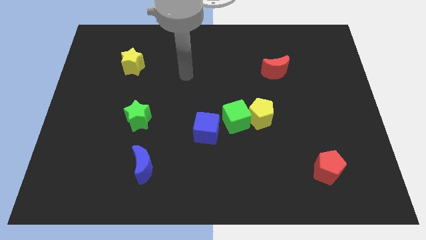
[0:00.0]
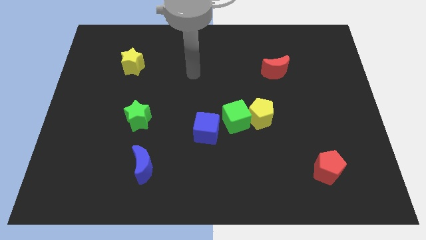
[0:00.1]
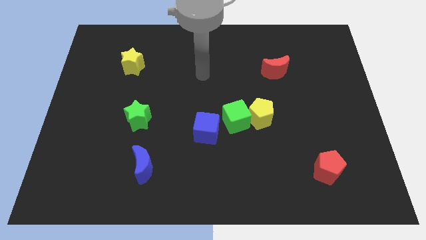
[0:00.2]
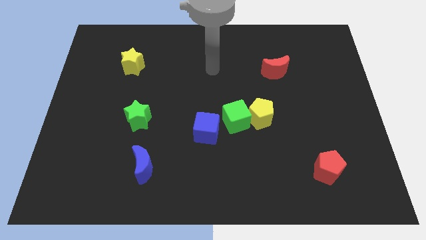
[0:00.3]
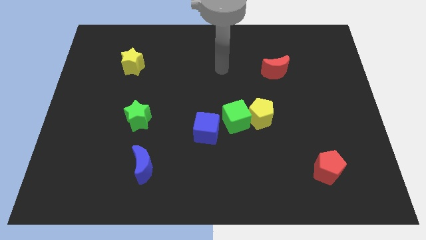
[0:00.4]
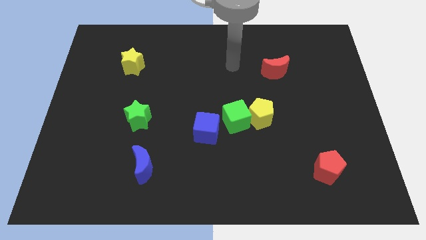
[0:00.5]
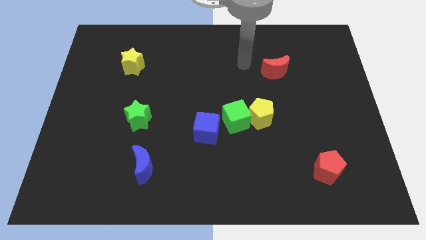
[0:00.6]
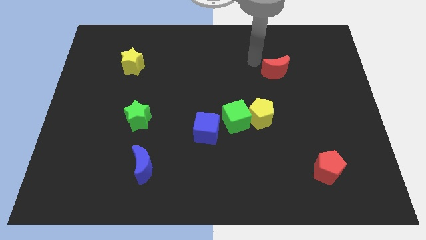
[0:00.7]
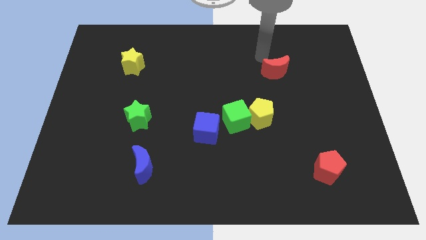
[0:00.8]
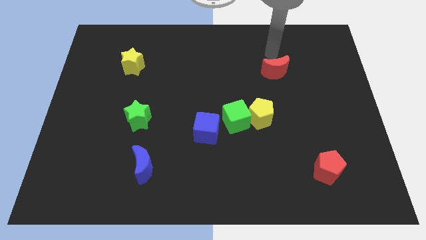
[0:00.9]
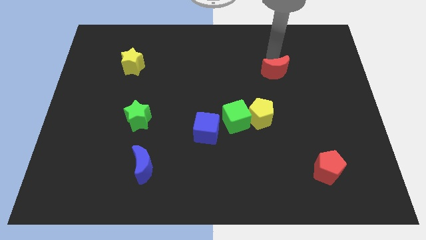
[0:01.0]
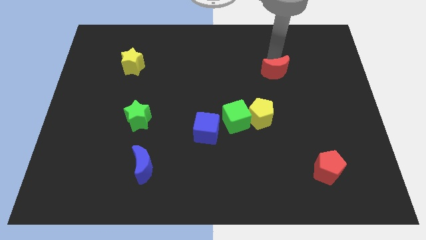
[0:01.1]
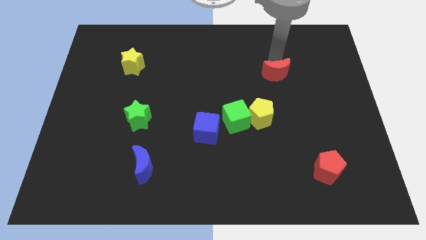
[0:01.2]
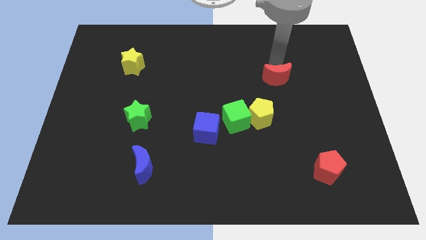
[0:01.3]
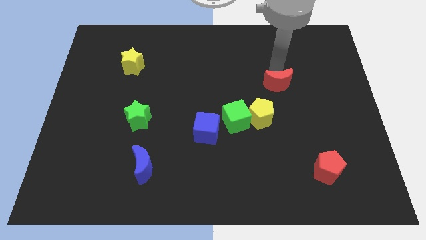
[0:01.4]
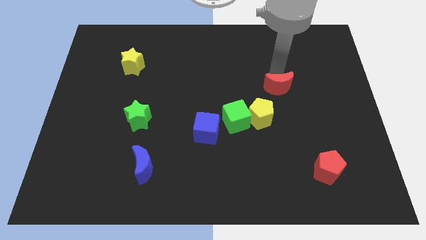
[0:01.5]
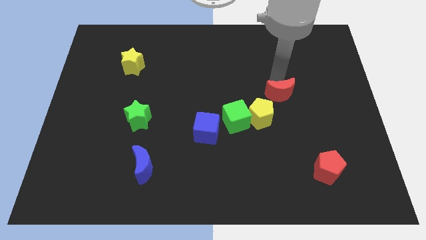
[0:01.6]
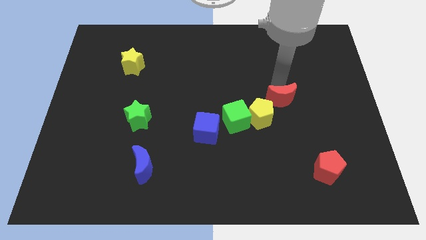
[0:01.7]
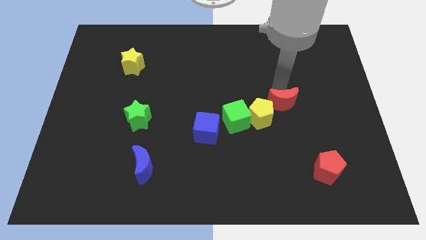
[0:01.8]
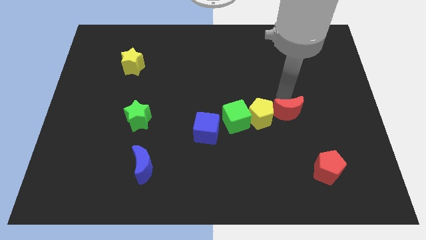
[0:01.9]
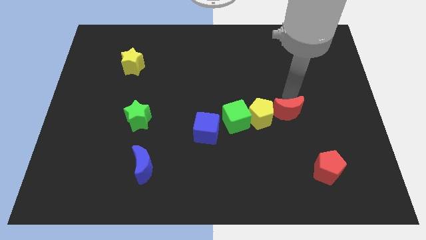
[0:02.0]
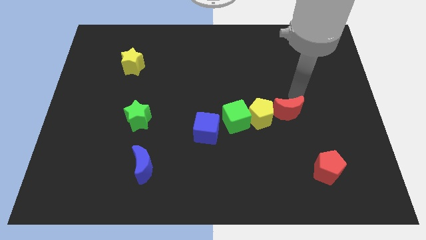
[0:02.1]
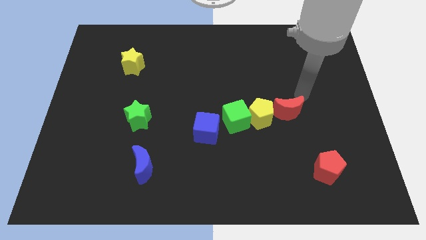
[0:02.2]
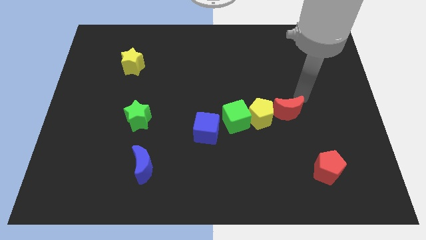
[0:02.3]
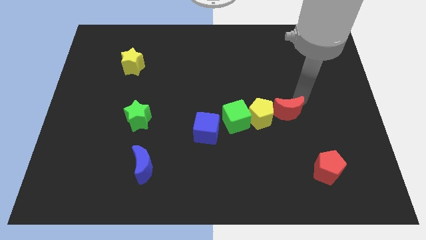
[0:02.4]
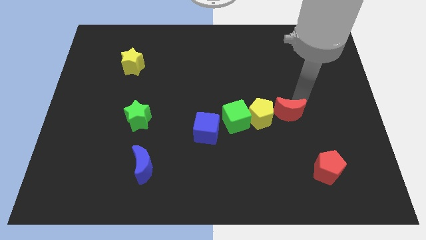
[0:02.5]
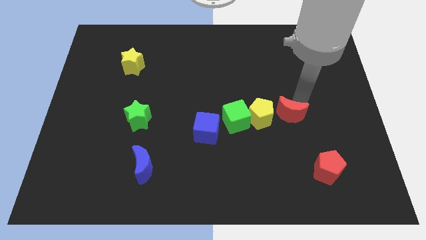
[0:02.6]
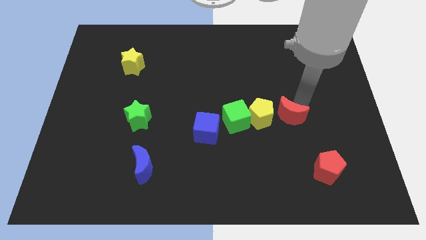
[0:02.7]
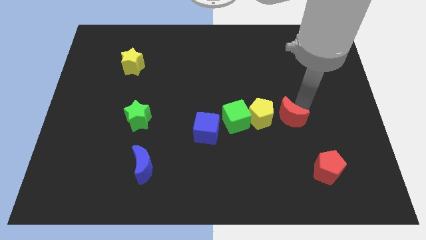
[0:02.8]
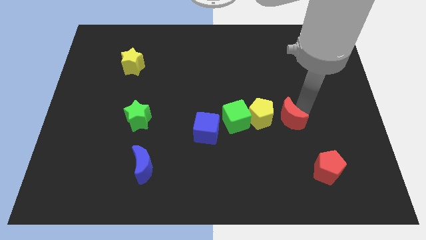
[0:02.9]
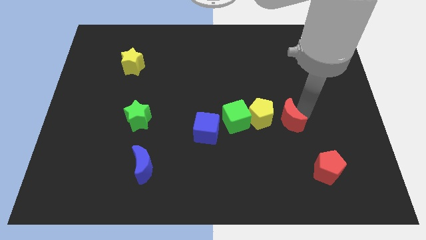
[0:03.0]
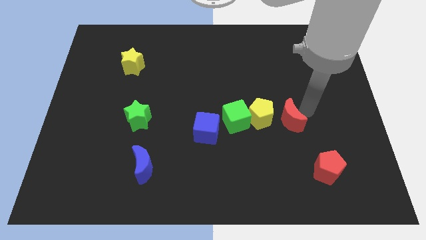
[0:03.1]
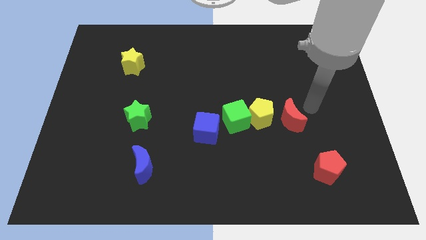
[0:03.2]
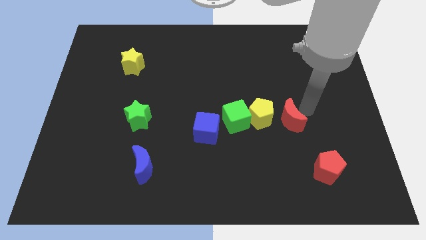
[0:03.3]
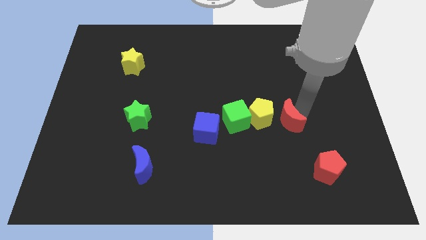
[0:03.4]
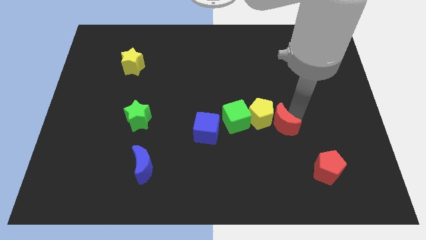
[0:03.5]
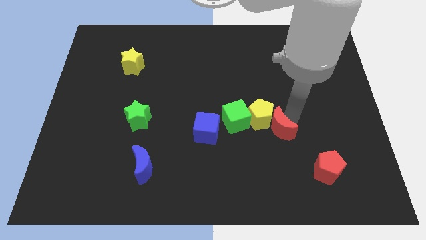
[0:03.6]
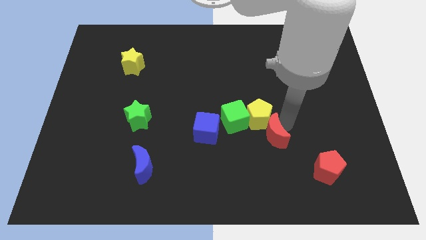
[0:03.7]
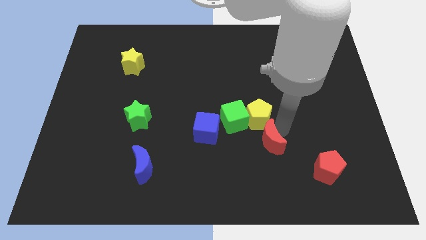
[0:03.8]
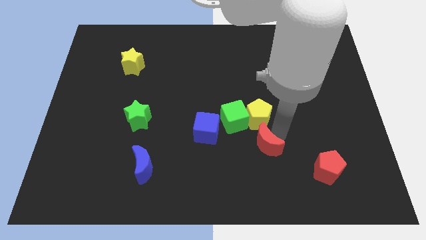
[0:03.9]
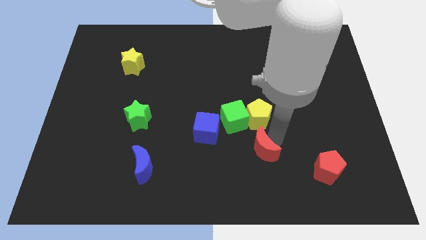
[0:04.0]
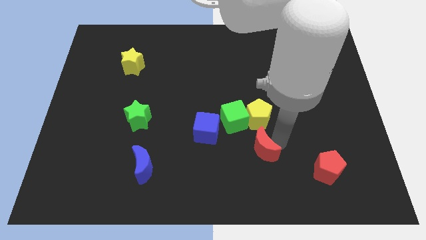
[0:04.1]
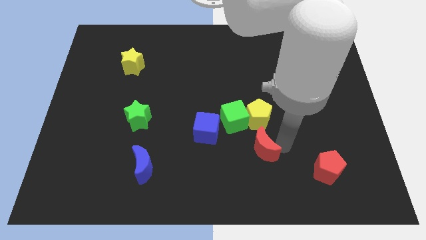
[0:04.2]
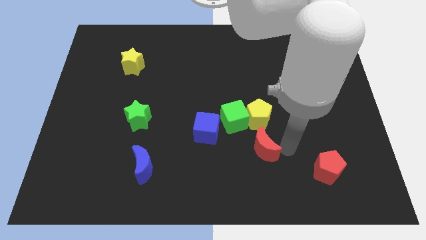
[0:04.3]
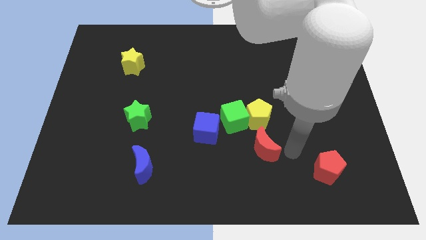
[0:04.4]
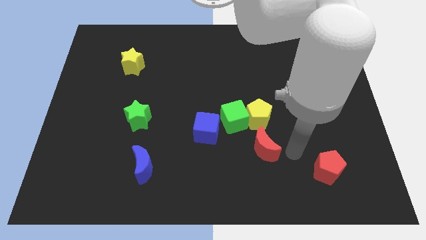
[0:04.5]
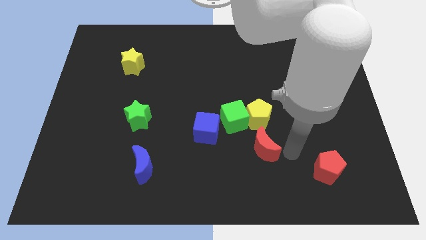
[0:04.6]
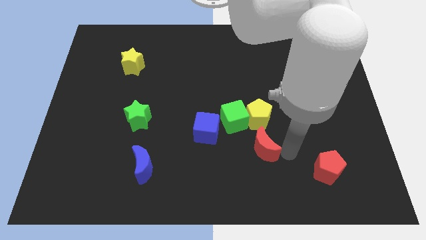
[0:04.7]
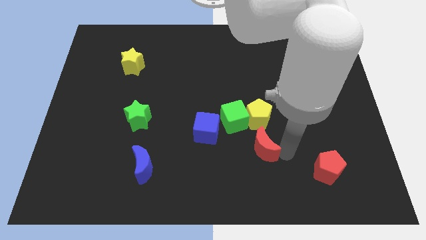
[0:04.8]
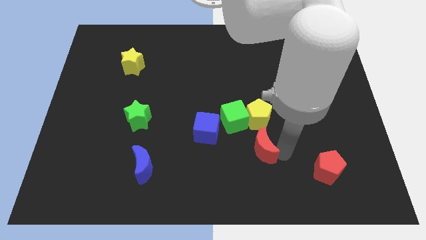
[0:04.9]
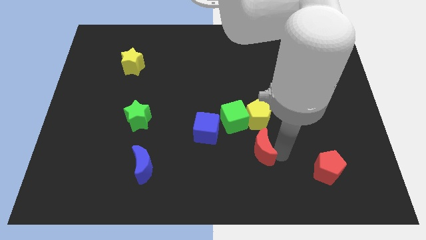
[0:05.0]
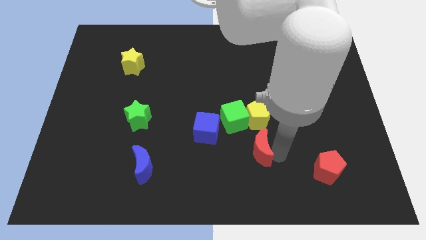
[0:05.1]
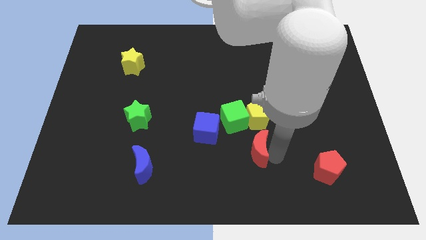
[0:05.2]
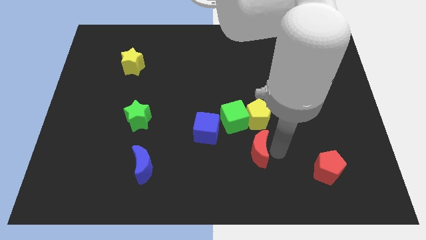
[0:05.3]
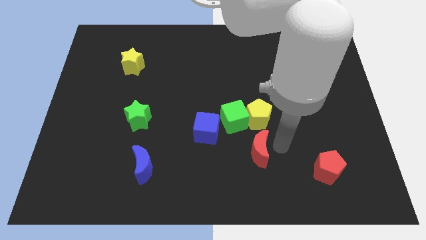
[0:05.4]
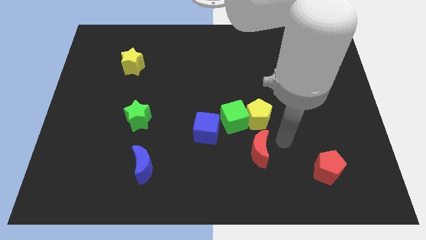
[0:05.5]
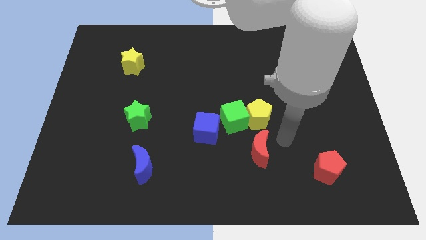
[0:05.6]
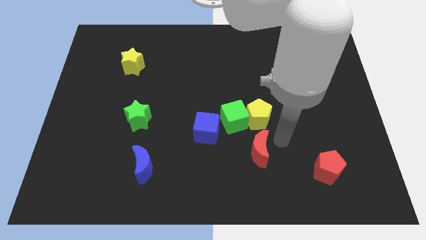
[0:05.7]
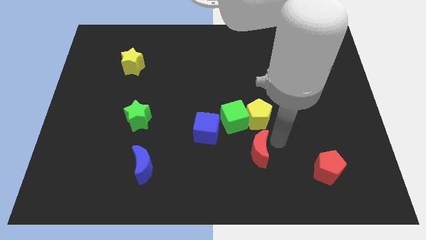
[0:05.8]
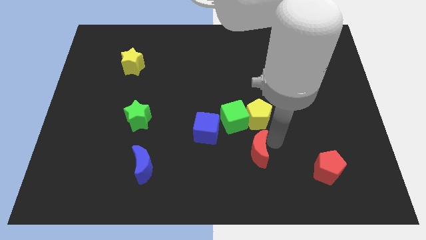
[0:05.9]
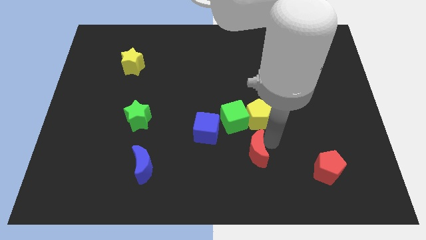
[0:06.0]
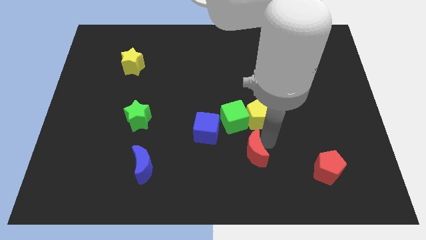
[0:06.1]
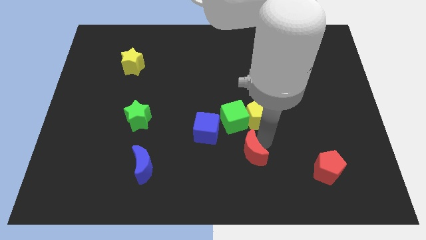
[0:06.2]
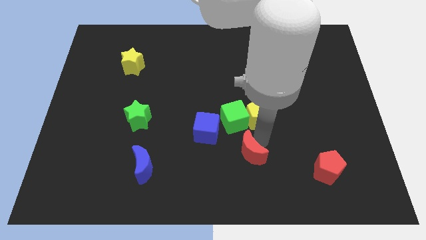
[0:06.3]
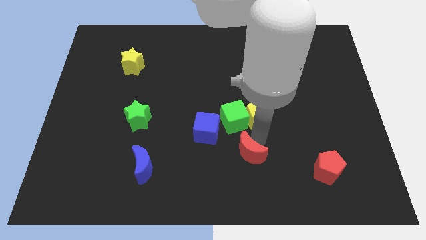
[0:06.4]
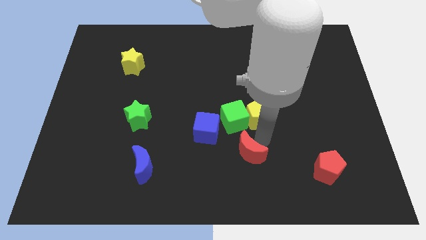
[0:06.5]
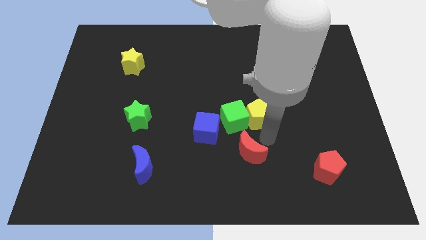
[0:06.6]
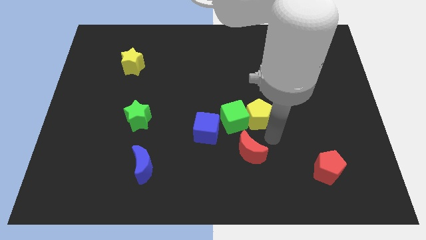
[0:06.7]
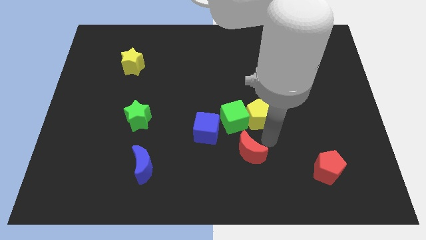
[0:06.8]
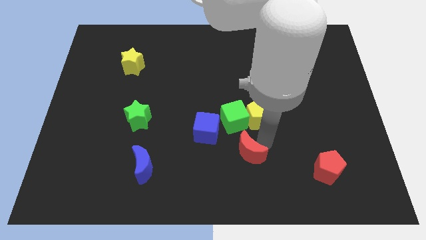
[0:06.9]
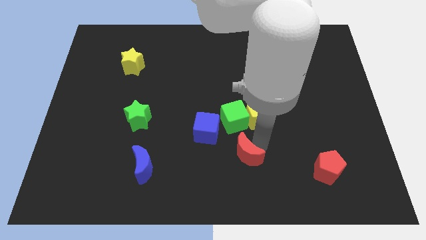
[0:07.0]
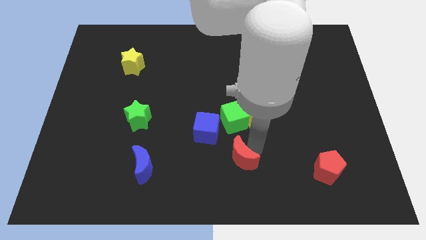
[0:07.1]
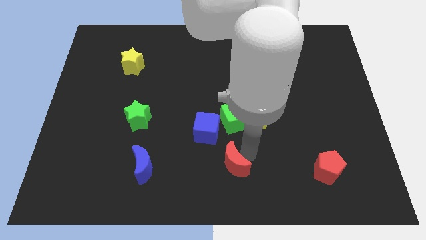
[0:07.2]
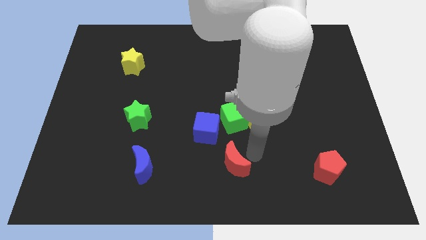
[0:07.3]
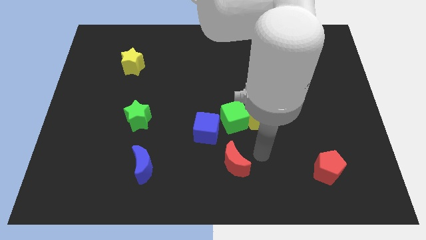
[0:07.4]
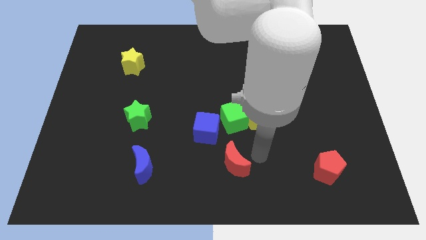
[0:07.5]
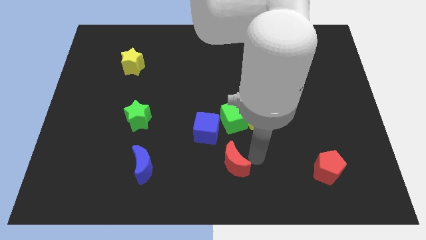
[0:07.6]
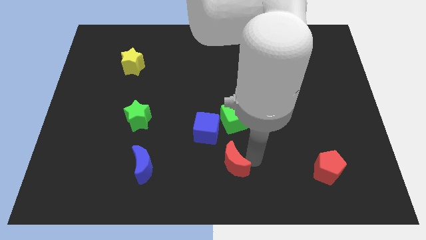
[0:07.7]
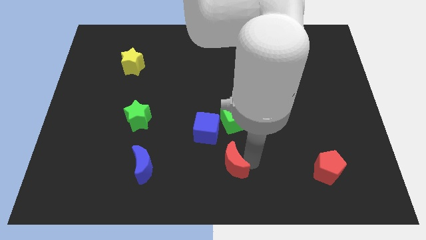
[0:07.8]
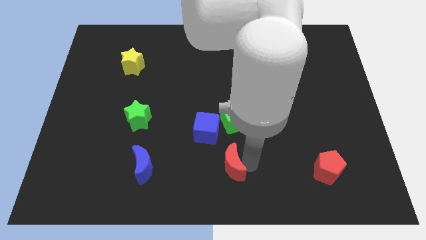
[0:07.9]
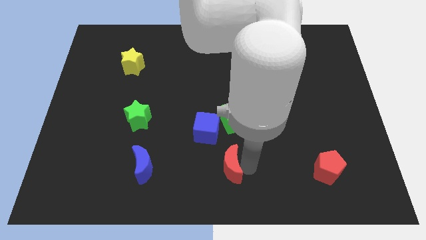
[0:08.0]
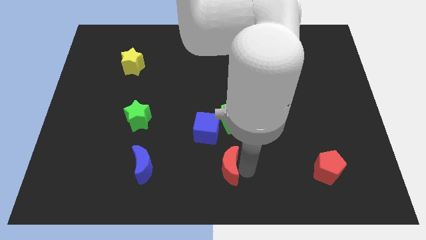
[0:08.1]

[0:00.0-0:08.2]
put the red moon to the bottom side of the blue cube
